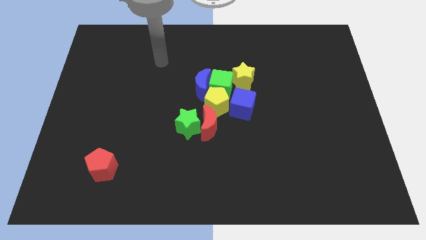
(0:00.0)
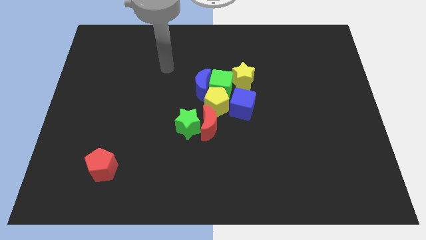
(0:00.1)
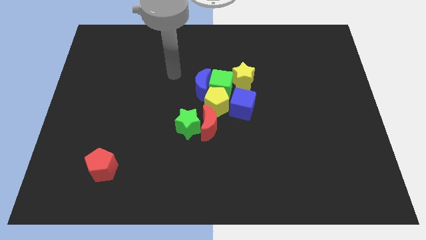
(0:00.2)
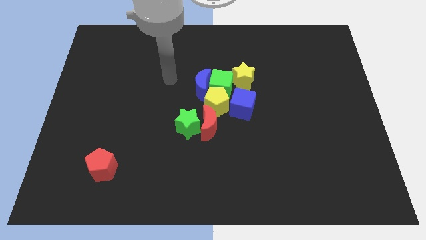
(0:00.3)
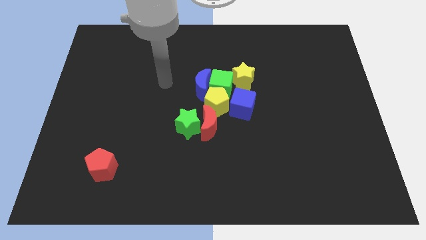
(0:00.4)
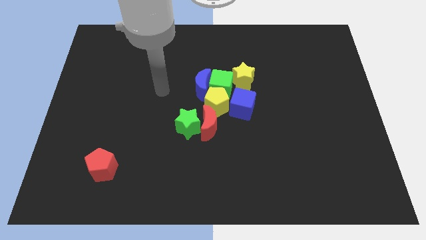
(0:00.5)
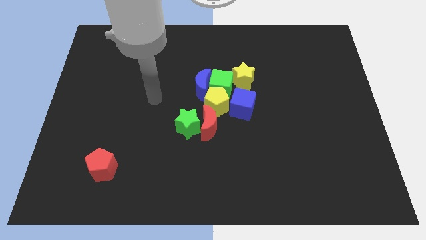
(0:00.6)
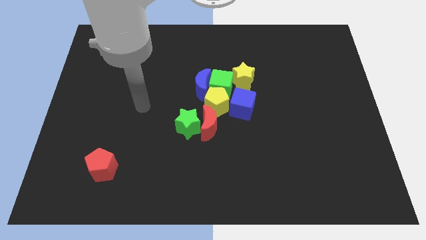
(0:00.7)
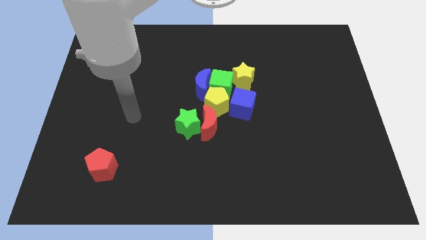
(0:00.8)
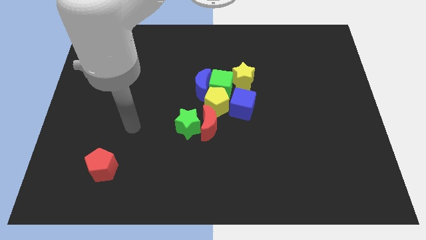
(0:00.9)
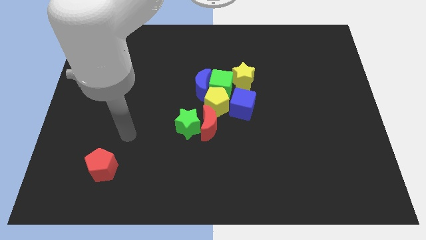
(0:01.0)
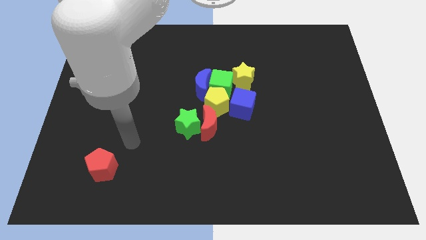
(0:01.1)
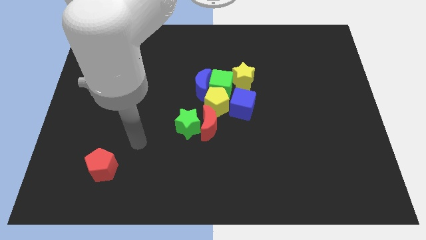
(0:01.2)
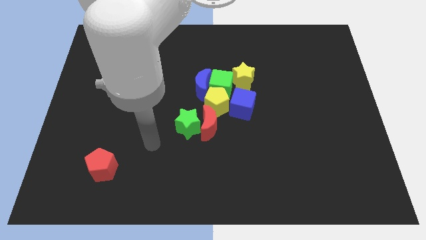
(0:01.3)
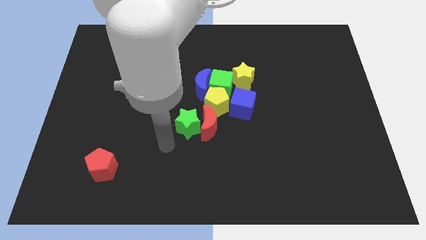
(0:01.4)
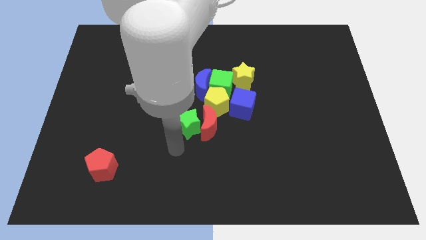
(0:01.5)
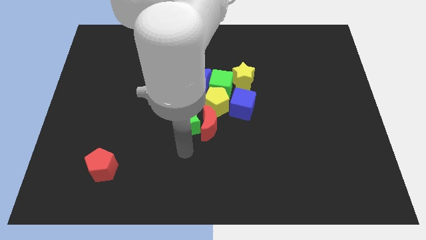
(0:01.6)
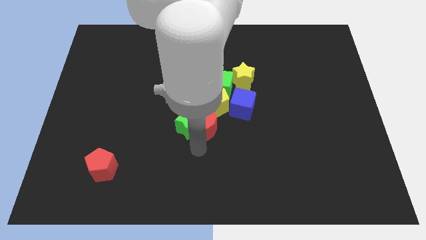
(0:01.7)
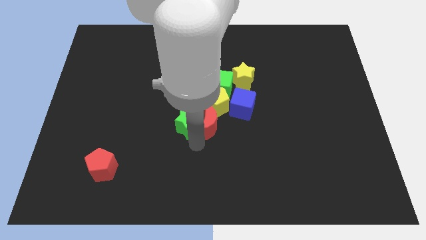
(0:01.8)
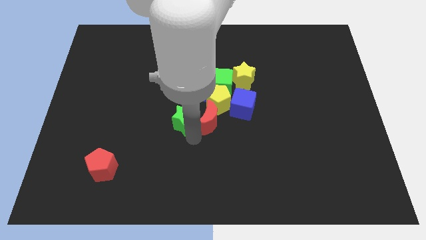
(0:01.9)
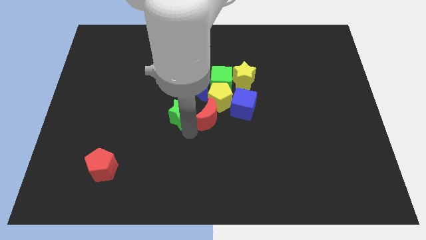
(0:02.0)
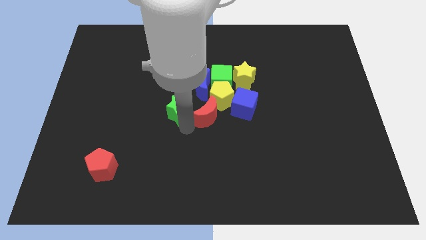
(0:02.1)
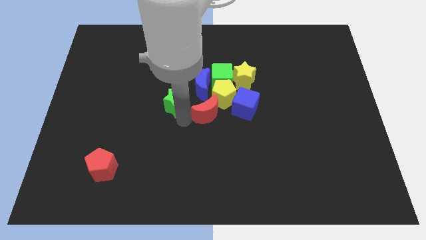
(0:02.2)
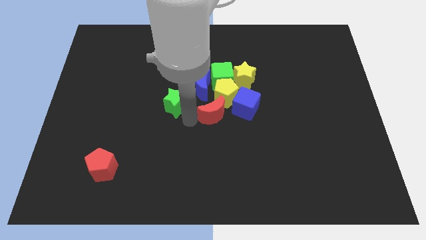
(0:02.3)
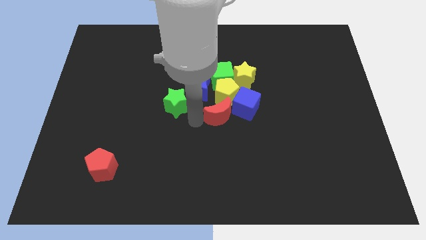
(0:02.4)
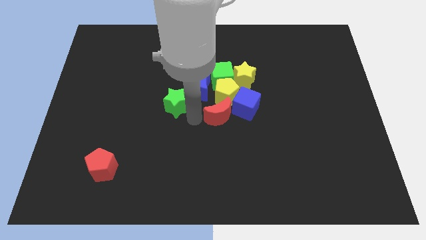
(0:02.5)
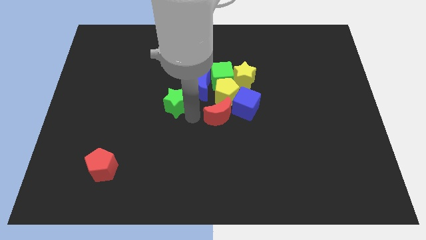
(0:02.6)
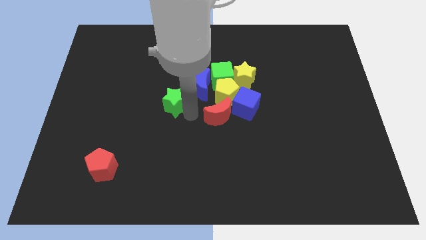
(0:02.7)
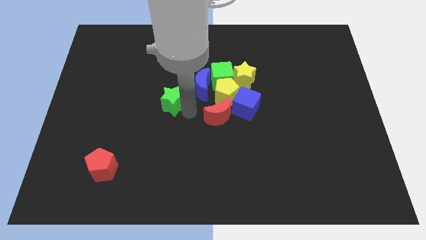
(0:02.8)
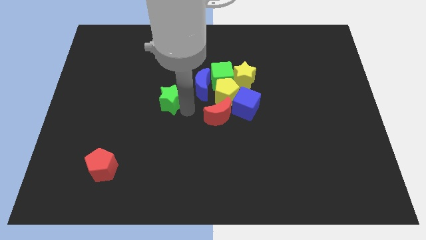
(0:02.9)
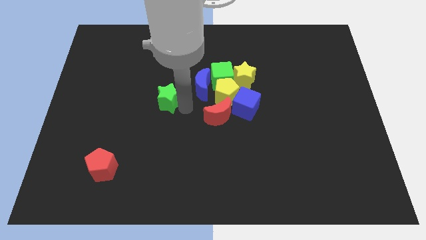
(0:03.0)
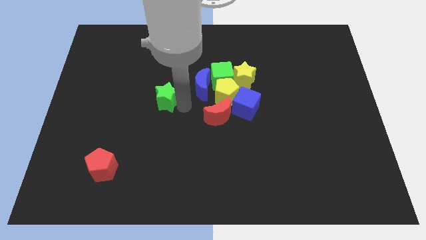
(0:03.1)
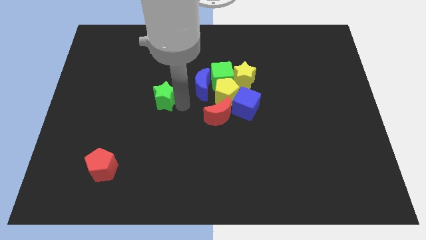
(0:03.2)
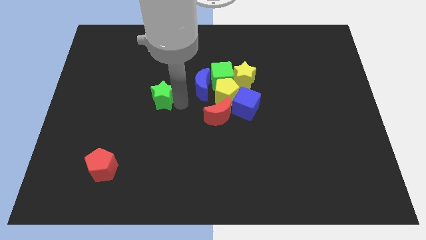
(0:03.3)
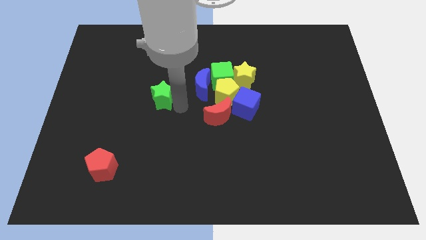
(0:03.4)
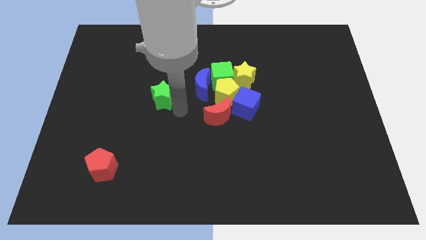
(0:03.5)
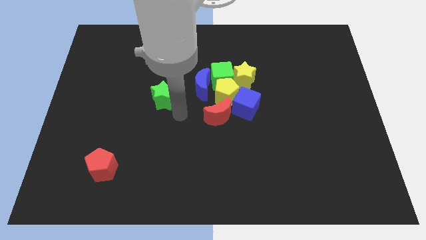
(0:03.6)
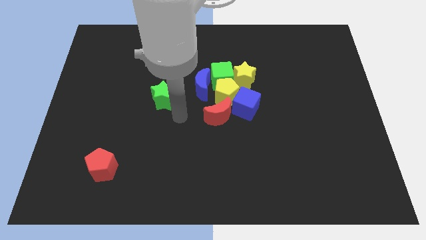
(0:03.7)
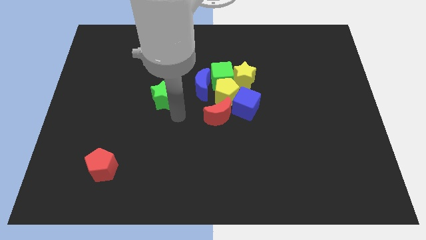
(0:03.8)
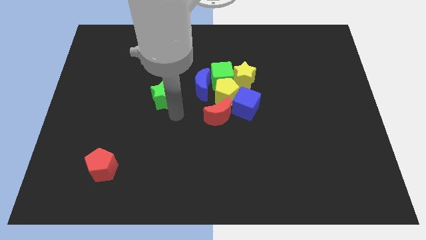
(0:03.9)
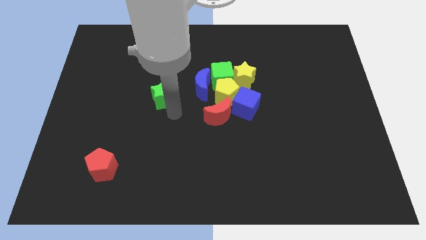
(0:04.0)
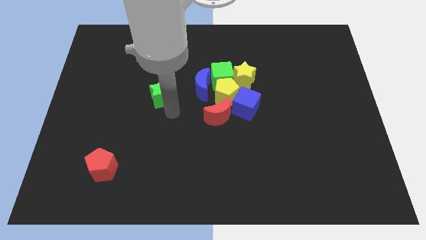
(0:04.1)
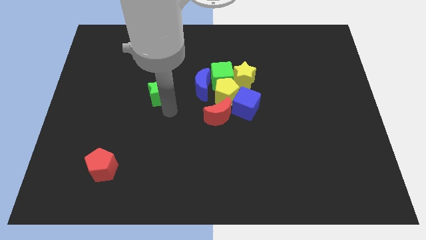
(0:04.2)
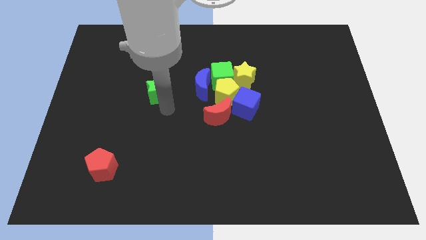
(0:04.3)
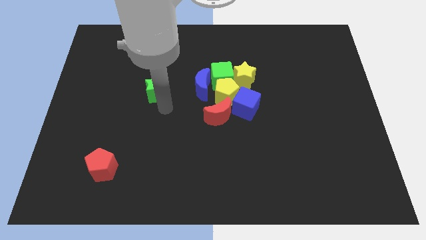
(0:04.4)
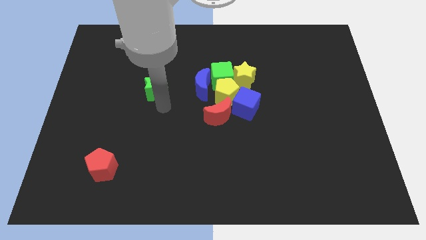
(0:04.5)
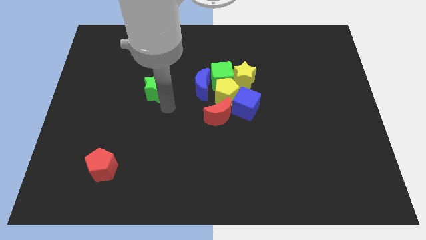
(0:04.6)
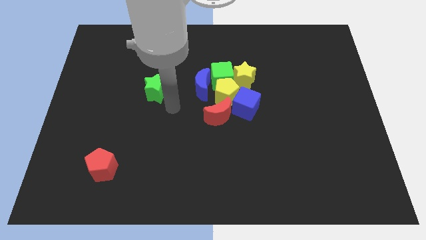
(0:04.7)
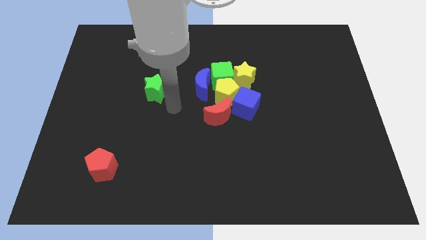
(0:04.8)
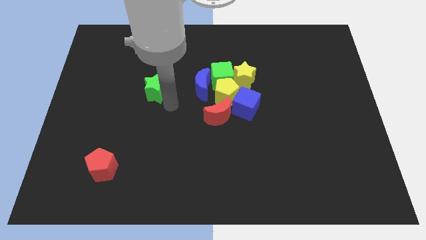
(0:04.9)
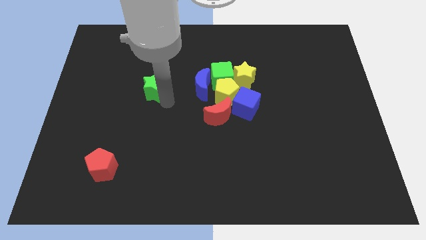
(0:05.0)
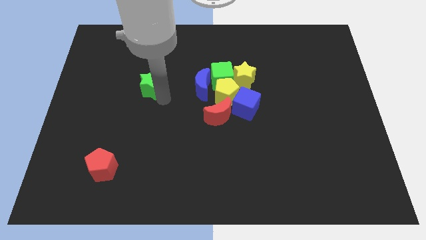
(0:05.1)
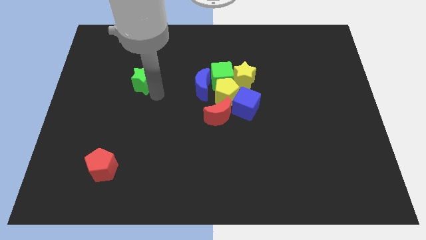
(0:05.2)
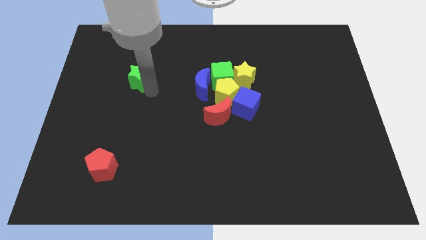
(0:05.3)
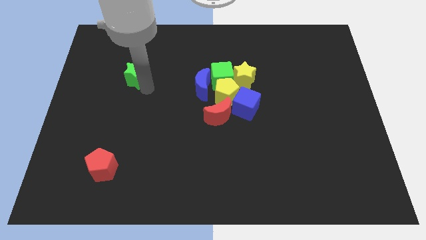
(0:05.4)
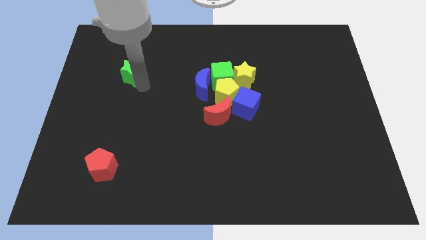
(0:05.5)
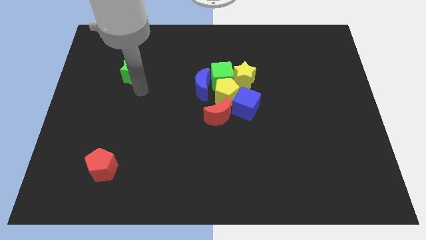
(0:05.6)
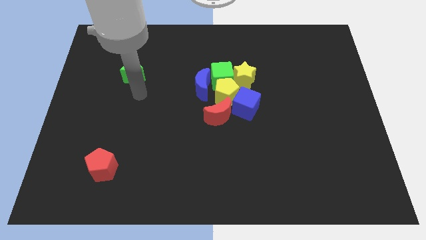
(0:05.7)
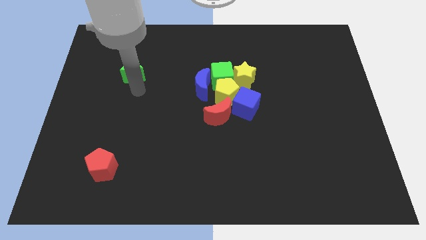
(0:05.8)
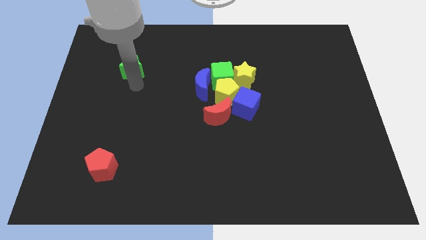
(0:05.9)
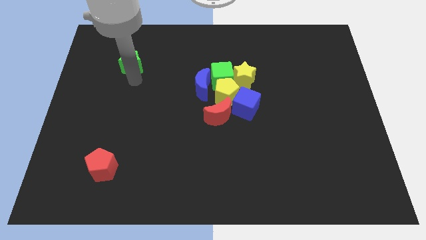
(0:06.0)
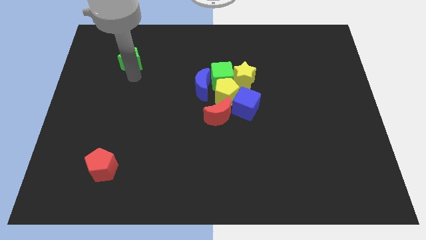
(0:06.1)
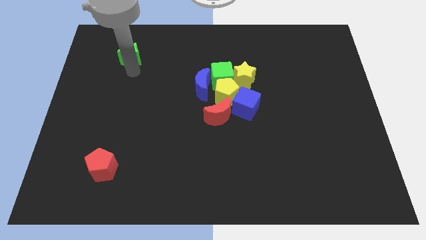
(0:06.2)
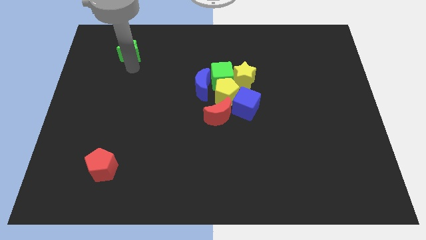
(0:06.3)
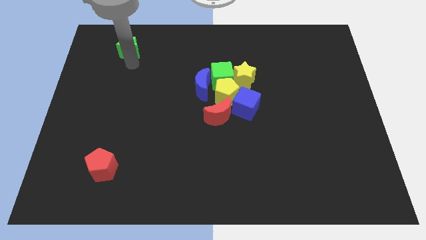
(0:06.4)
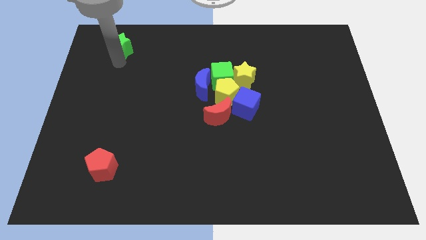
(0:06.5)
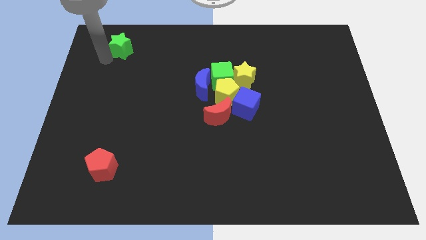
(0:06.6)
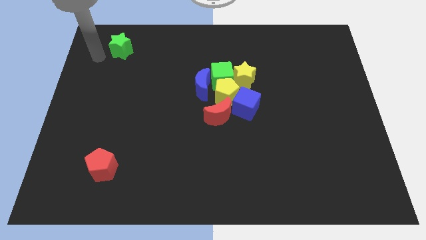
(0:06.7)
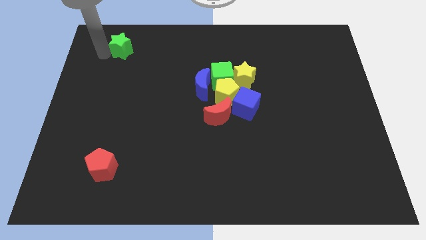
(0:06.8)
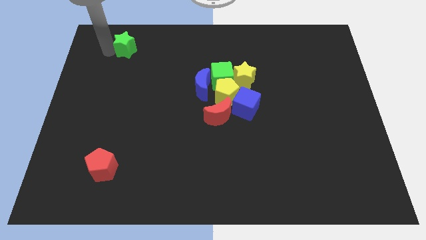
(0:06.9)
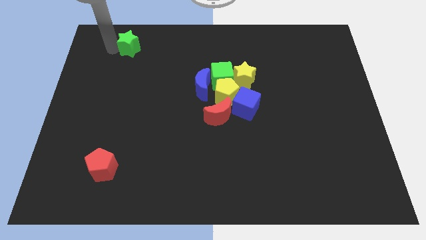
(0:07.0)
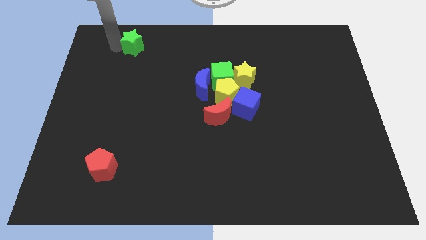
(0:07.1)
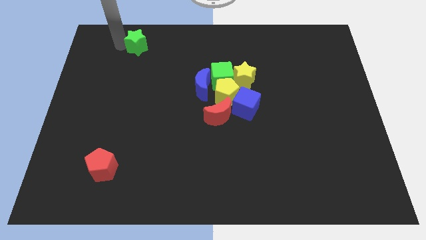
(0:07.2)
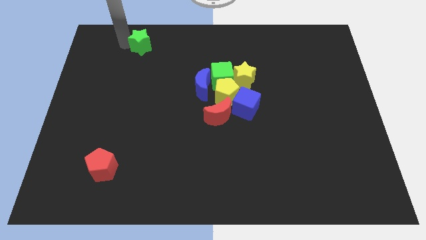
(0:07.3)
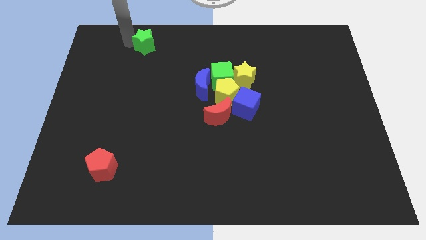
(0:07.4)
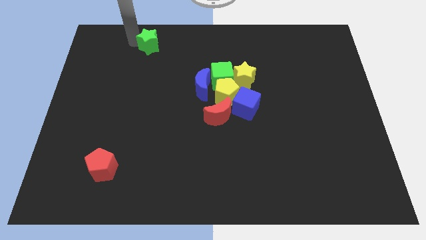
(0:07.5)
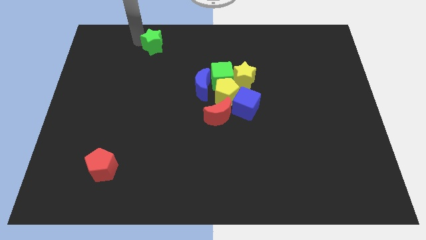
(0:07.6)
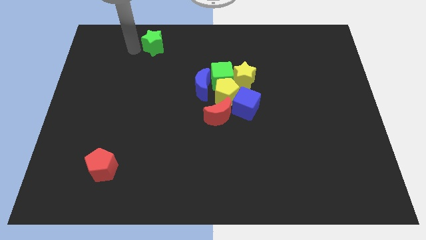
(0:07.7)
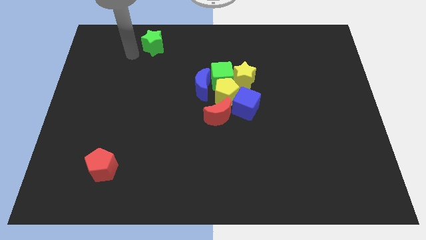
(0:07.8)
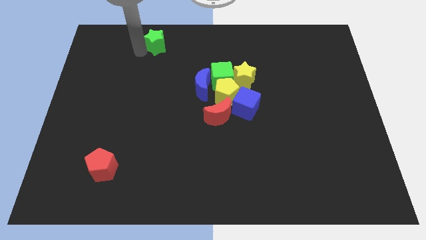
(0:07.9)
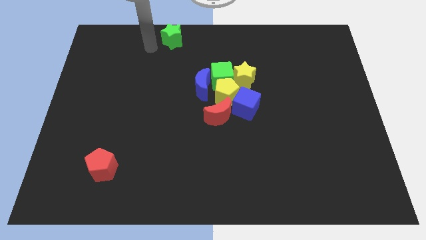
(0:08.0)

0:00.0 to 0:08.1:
push the green star to the top
